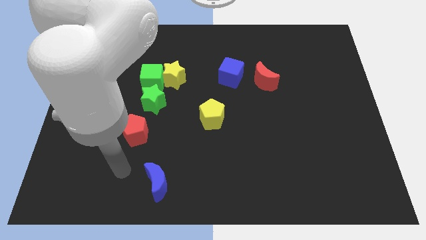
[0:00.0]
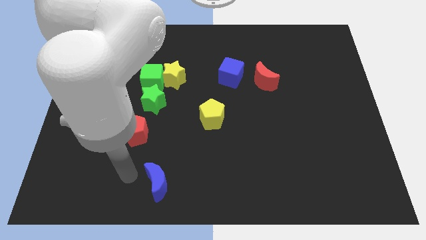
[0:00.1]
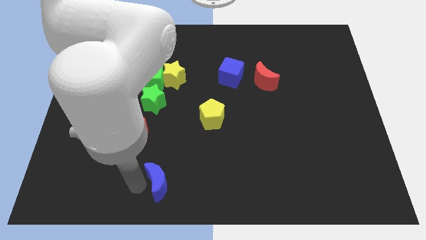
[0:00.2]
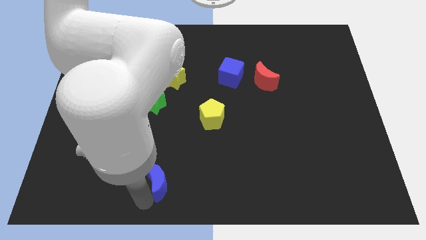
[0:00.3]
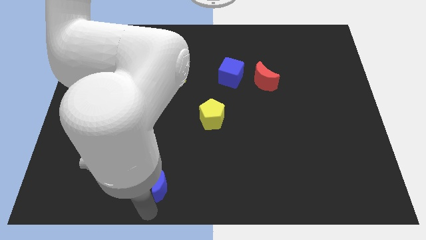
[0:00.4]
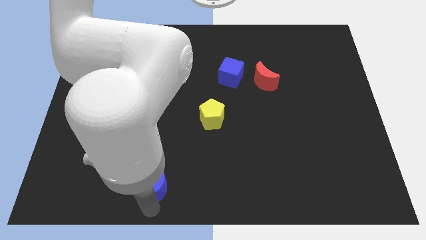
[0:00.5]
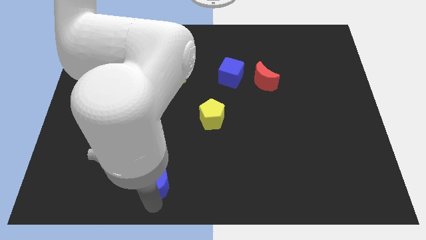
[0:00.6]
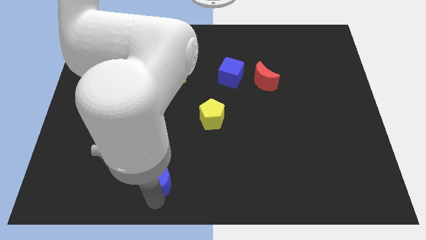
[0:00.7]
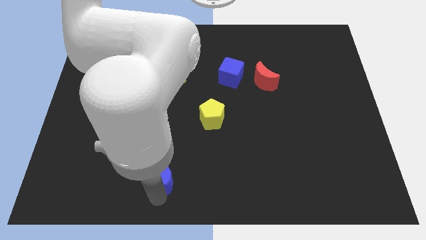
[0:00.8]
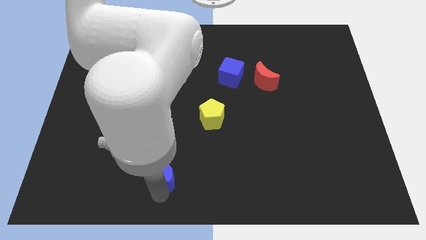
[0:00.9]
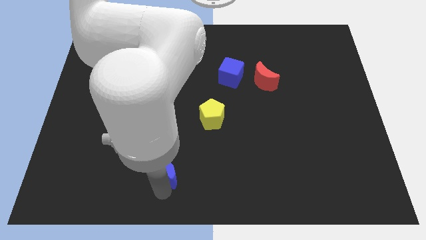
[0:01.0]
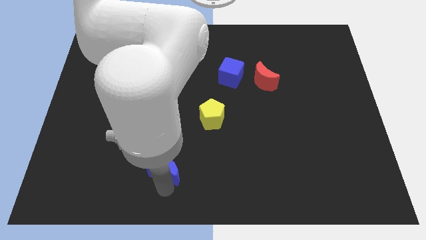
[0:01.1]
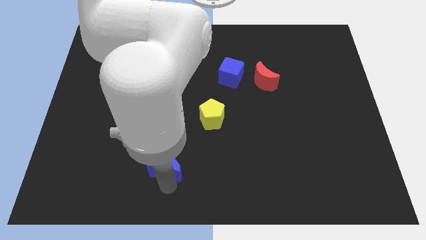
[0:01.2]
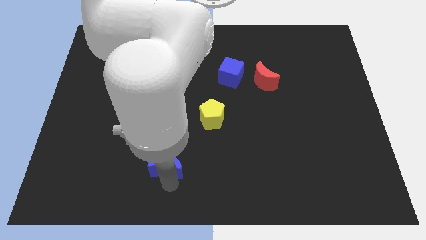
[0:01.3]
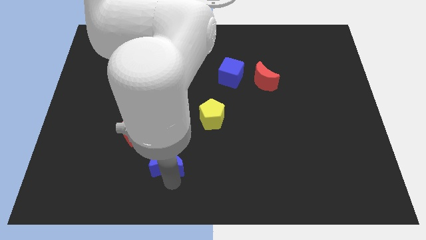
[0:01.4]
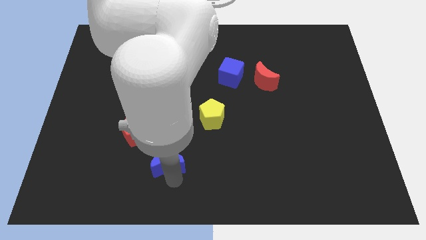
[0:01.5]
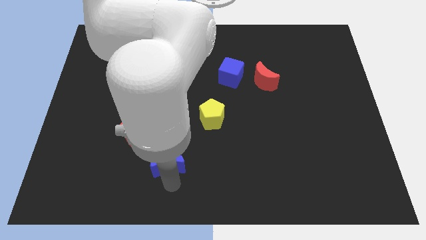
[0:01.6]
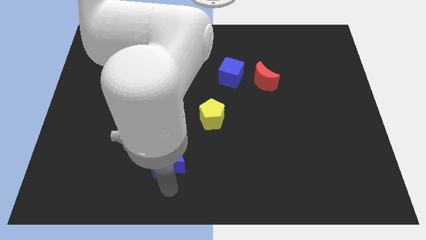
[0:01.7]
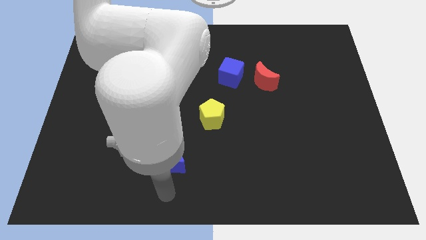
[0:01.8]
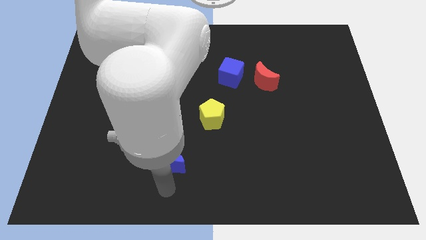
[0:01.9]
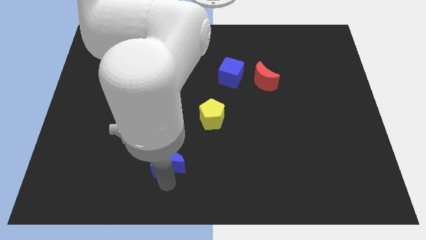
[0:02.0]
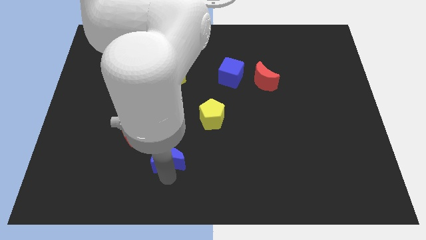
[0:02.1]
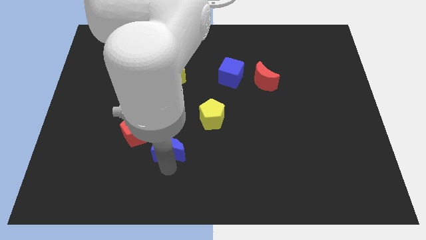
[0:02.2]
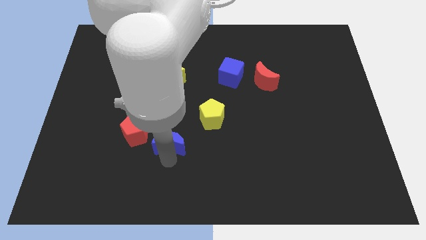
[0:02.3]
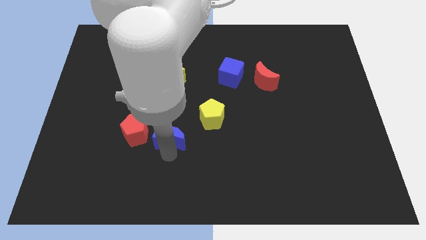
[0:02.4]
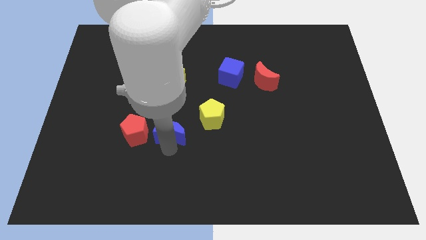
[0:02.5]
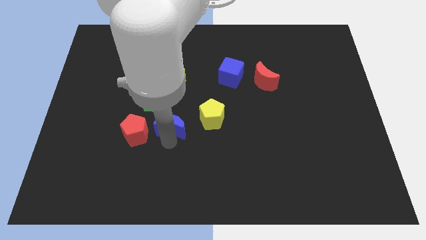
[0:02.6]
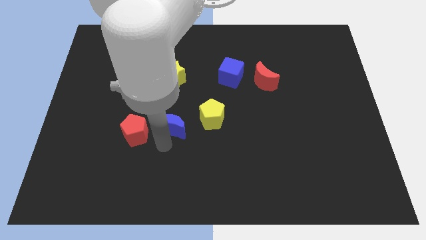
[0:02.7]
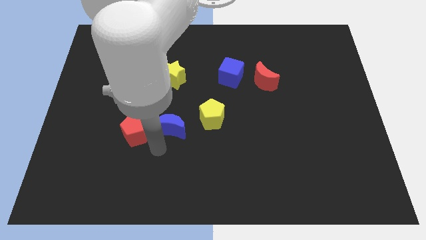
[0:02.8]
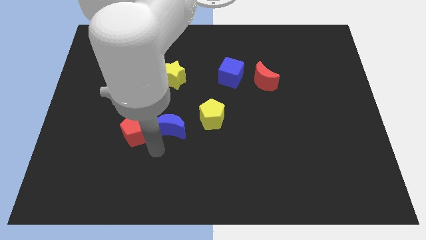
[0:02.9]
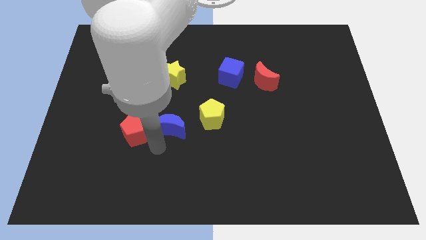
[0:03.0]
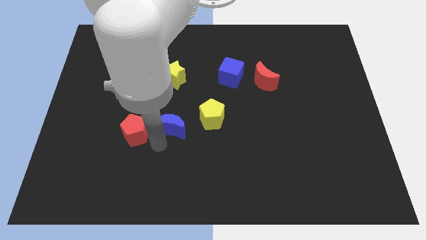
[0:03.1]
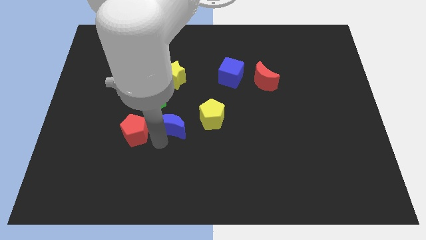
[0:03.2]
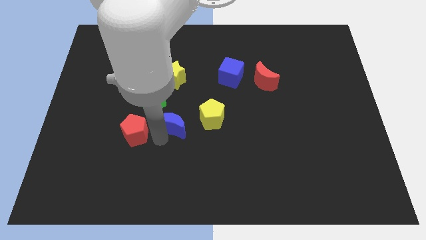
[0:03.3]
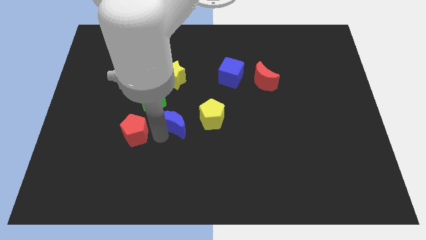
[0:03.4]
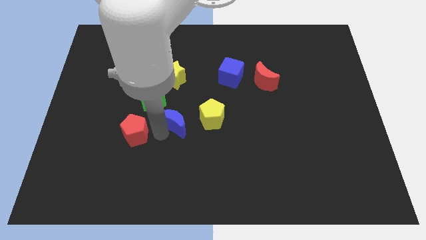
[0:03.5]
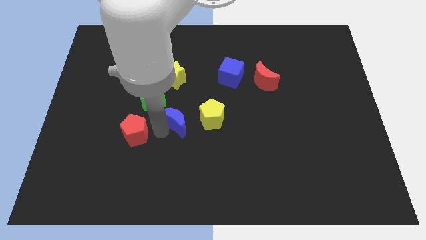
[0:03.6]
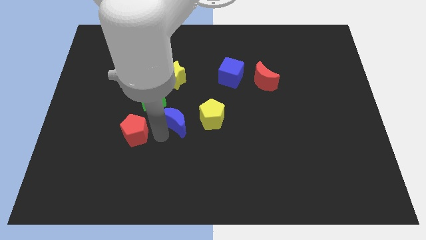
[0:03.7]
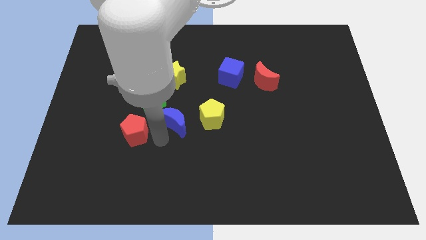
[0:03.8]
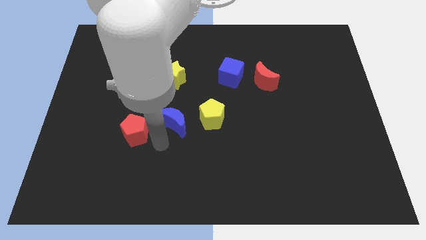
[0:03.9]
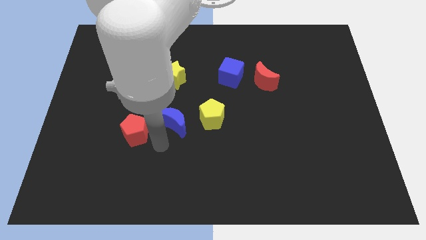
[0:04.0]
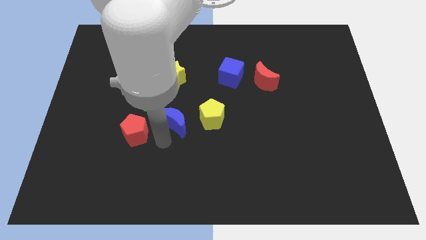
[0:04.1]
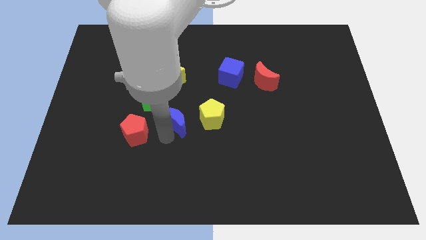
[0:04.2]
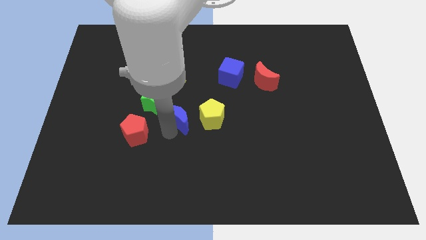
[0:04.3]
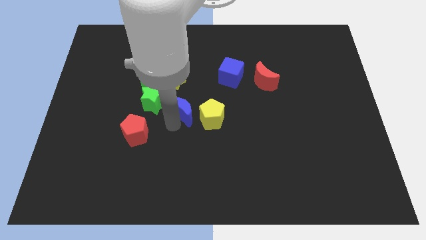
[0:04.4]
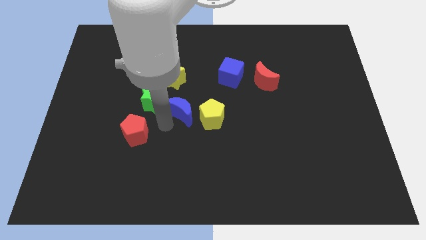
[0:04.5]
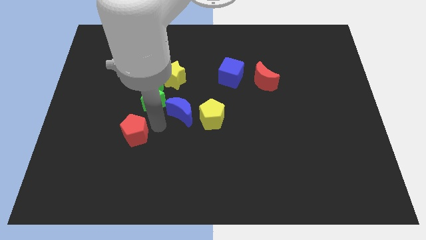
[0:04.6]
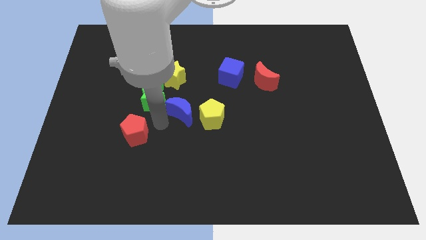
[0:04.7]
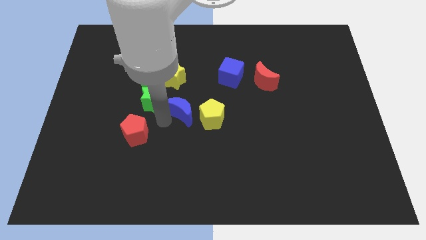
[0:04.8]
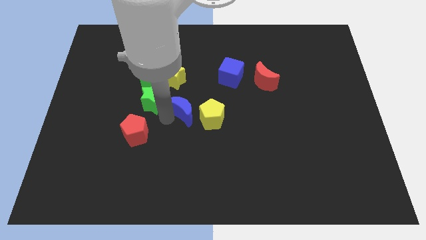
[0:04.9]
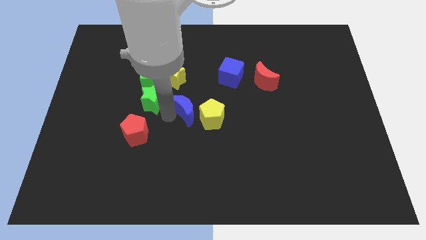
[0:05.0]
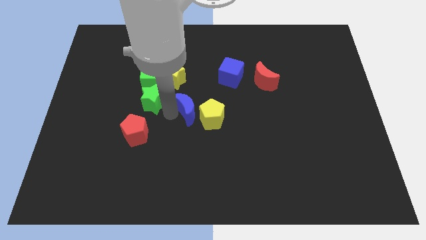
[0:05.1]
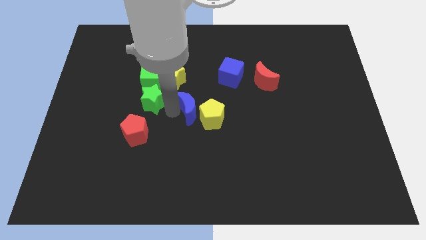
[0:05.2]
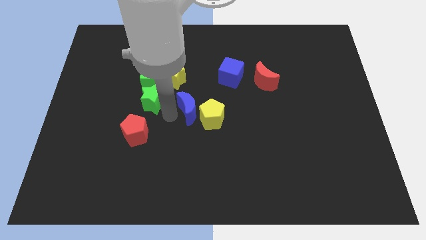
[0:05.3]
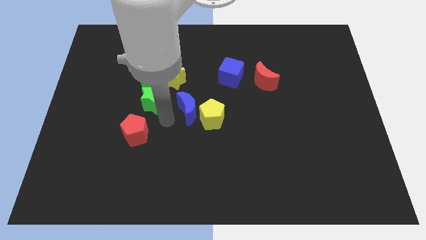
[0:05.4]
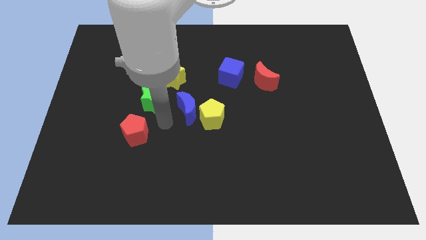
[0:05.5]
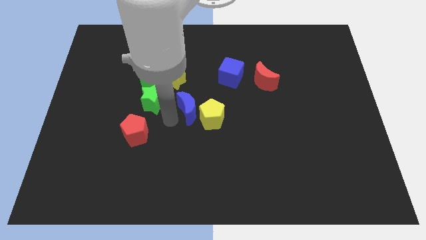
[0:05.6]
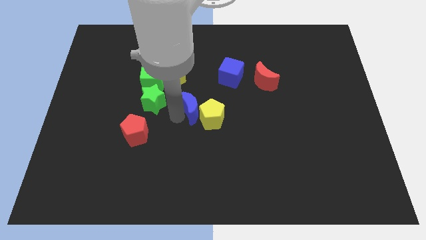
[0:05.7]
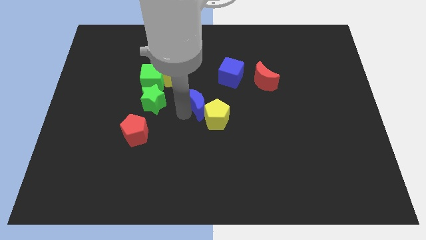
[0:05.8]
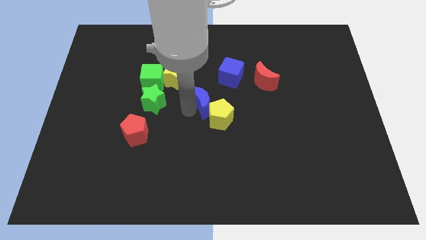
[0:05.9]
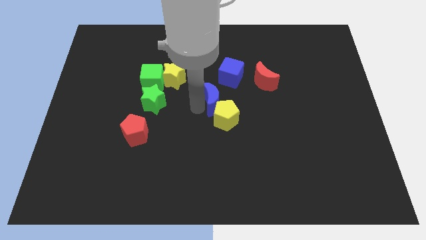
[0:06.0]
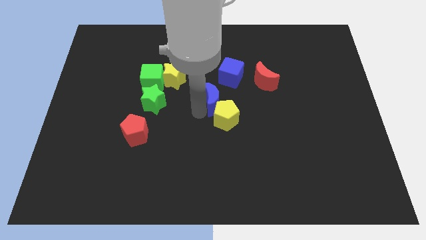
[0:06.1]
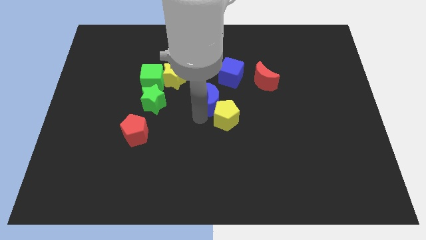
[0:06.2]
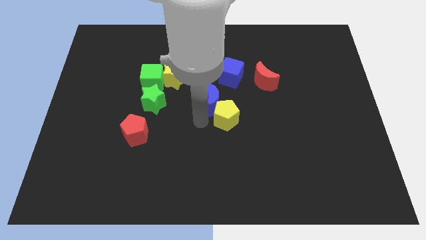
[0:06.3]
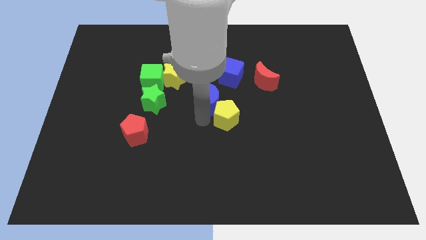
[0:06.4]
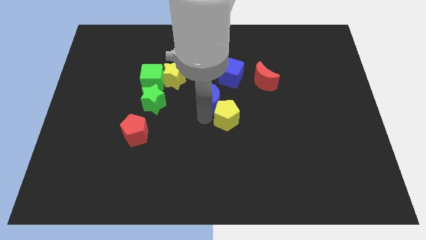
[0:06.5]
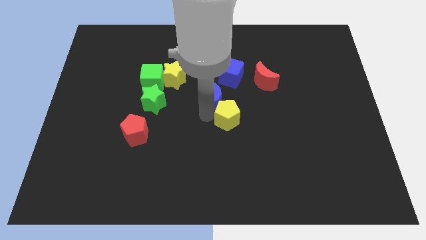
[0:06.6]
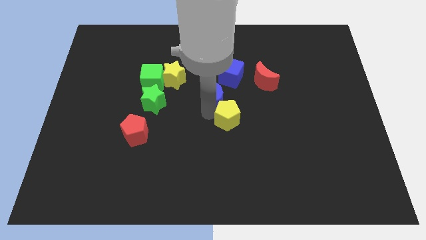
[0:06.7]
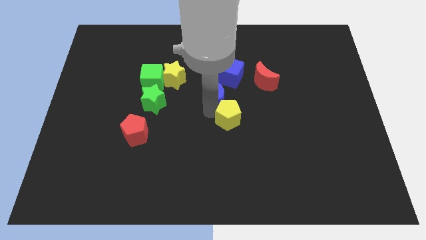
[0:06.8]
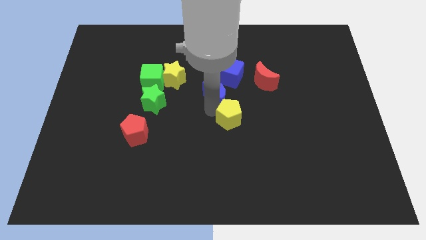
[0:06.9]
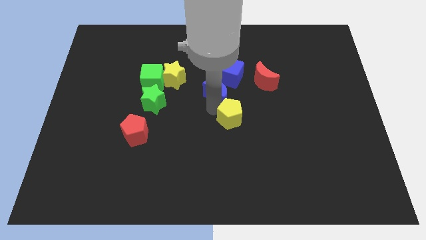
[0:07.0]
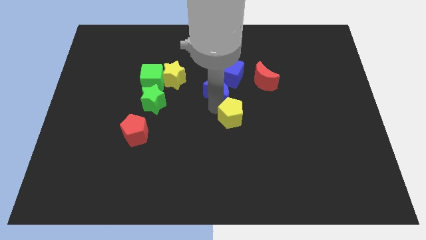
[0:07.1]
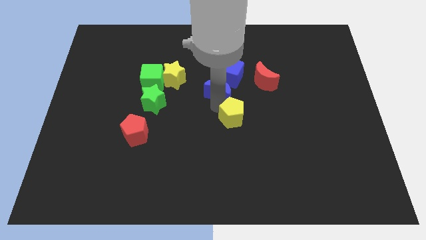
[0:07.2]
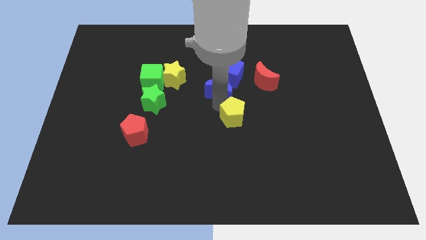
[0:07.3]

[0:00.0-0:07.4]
slide the blue moon to the blue cube

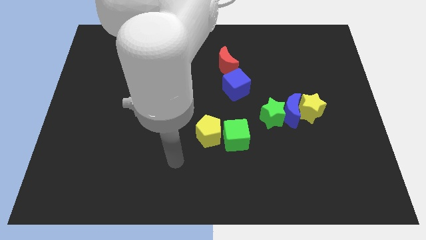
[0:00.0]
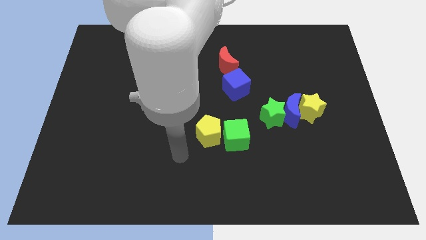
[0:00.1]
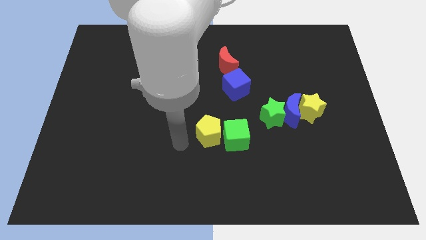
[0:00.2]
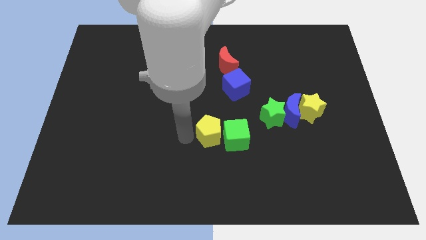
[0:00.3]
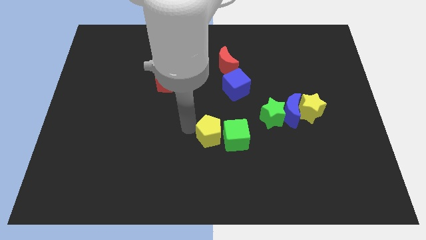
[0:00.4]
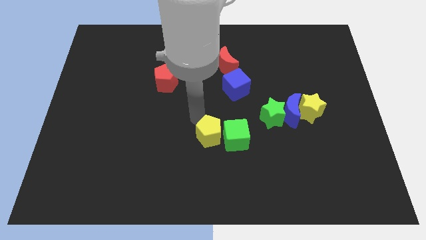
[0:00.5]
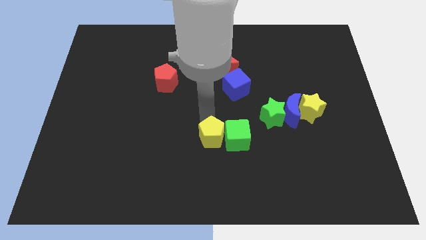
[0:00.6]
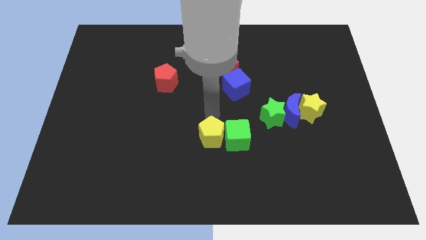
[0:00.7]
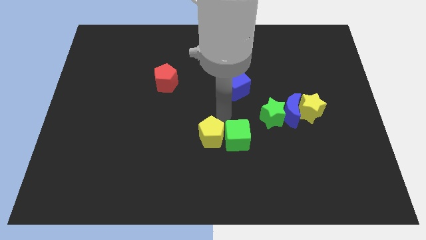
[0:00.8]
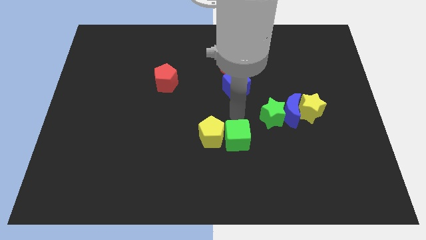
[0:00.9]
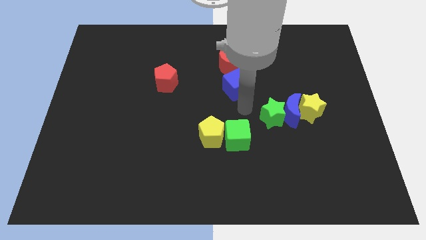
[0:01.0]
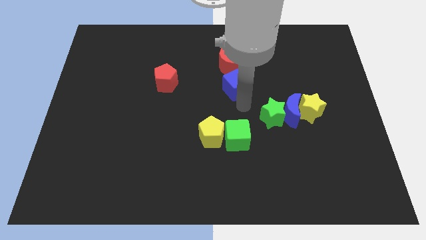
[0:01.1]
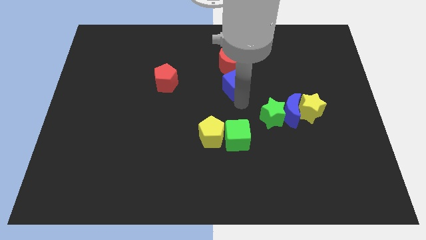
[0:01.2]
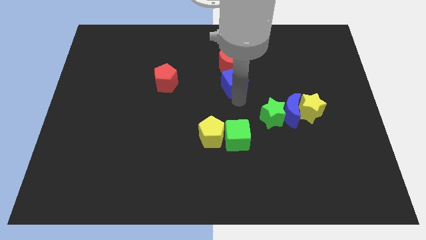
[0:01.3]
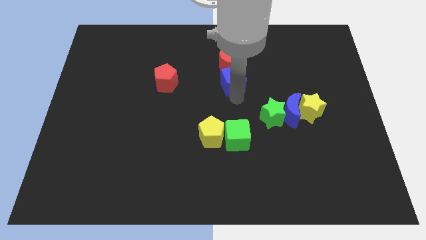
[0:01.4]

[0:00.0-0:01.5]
slide the blue cube to the red moon
